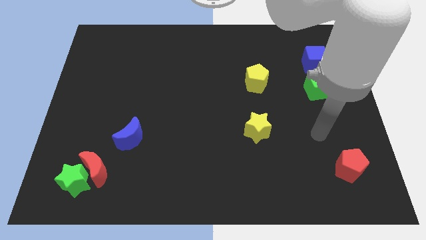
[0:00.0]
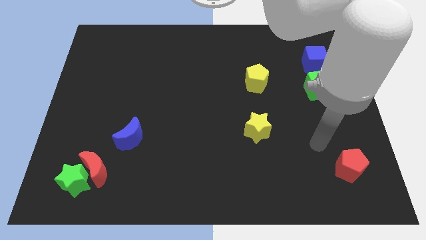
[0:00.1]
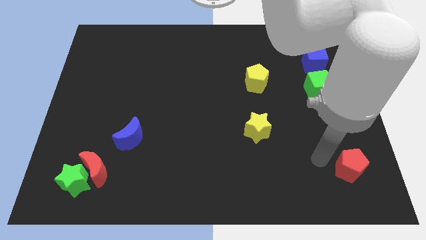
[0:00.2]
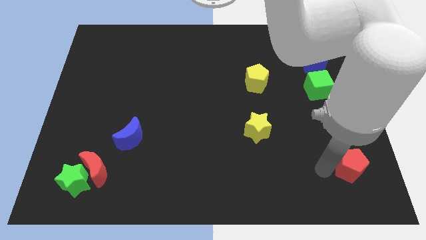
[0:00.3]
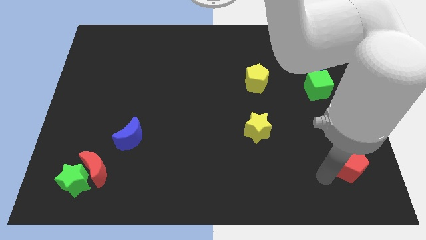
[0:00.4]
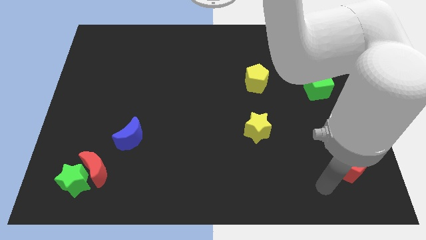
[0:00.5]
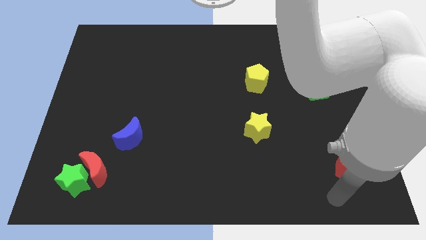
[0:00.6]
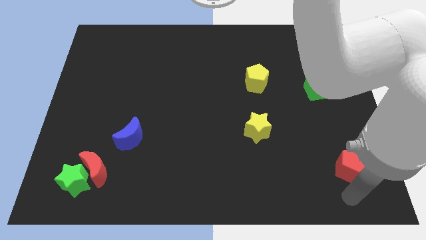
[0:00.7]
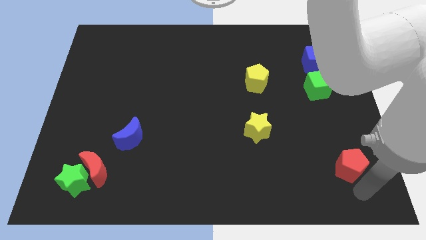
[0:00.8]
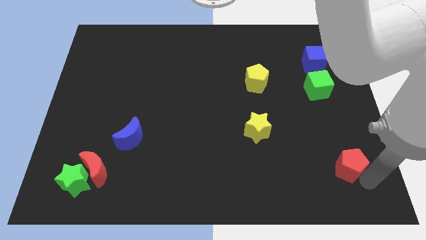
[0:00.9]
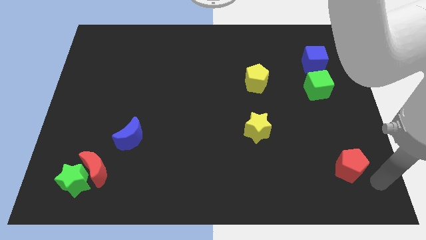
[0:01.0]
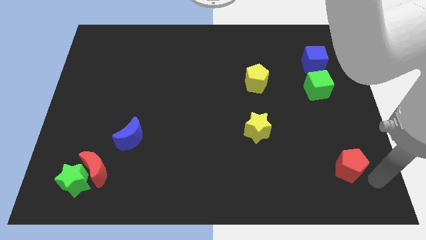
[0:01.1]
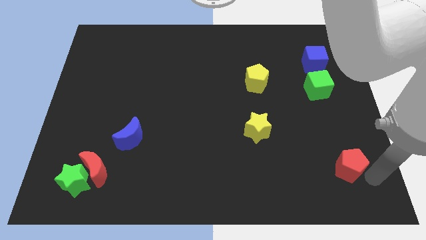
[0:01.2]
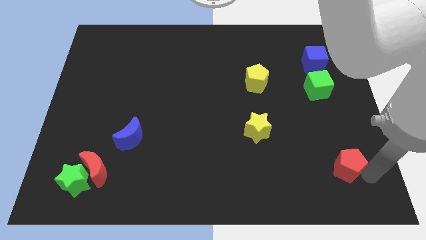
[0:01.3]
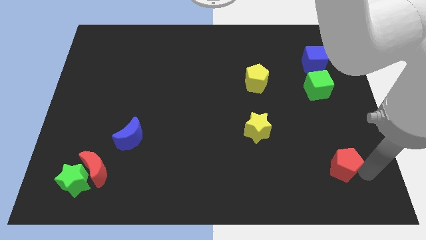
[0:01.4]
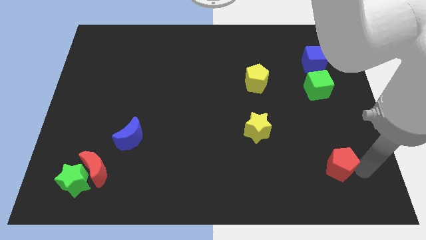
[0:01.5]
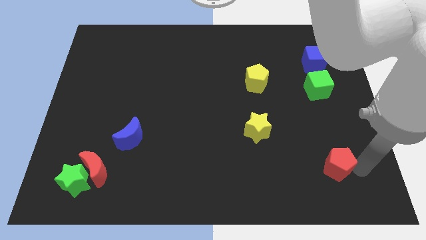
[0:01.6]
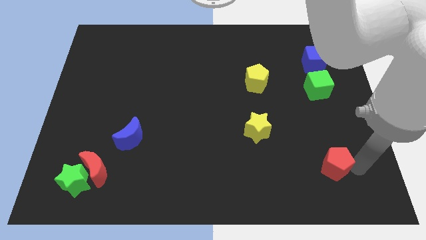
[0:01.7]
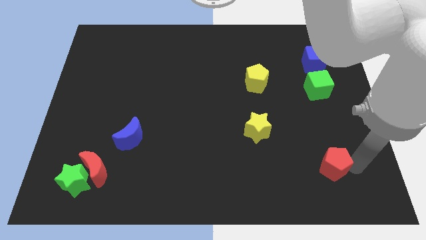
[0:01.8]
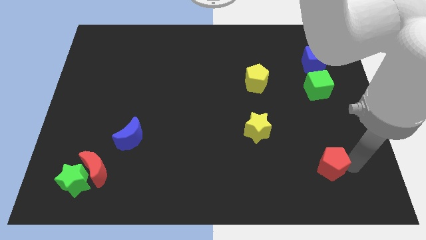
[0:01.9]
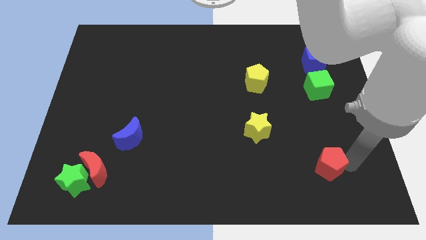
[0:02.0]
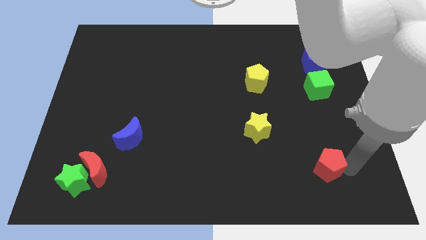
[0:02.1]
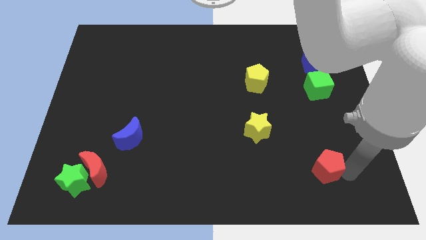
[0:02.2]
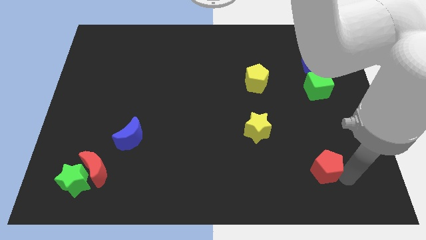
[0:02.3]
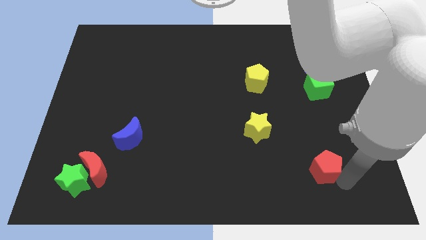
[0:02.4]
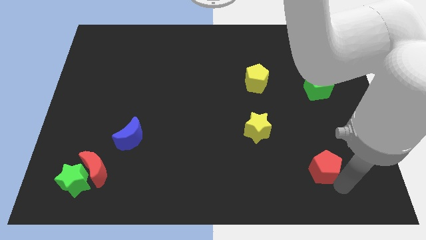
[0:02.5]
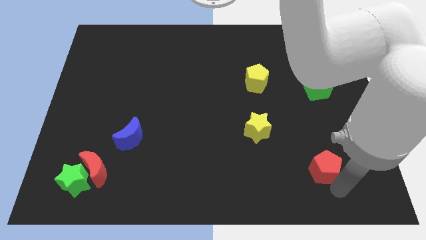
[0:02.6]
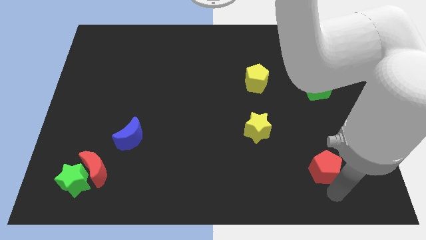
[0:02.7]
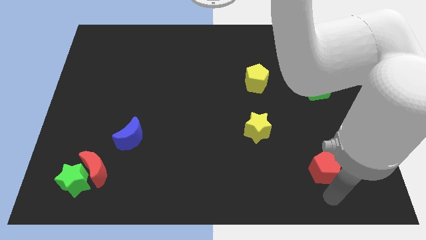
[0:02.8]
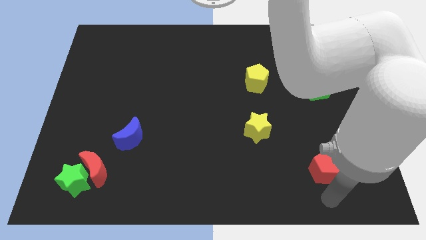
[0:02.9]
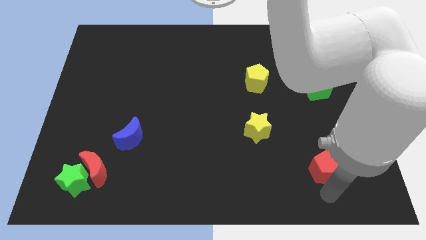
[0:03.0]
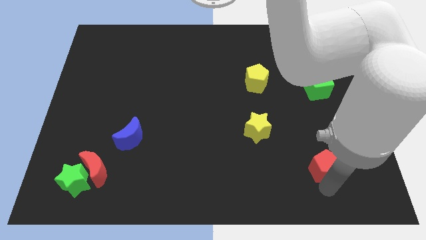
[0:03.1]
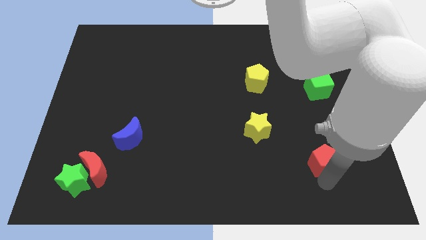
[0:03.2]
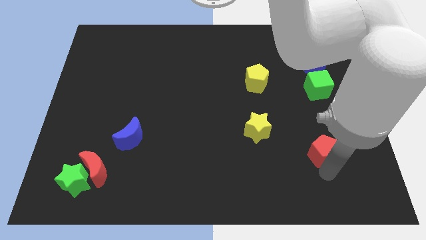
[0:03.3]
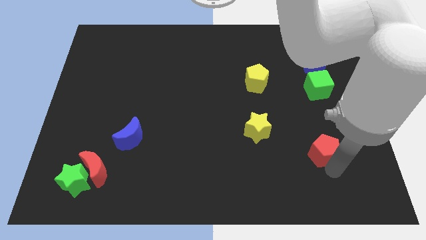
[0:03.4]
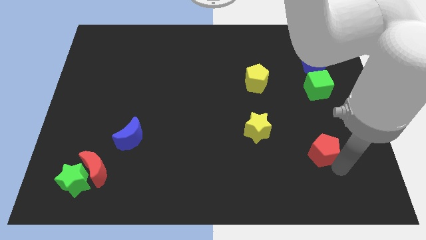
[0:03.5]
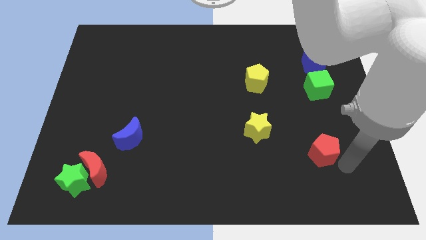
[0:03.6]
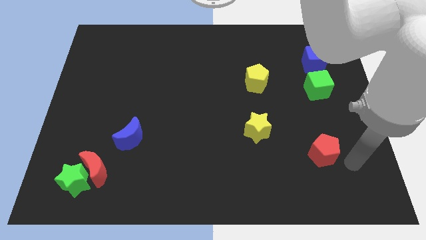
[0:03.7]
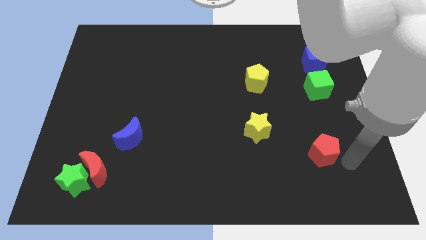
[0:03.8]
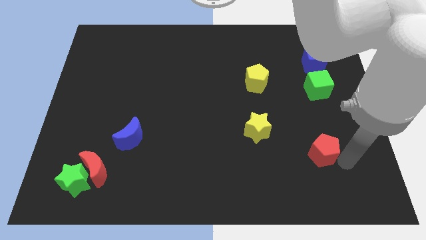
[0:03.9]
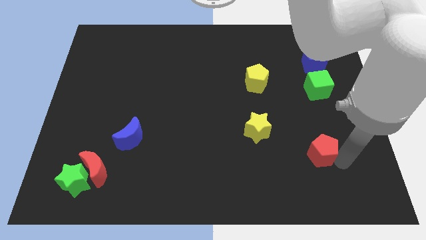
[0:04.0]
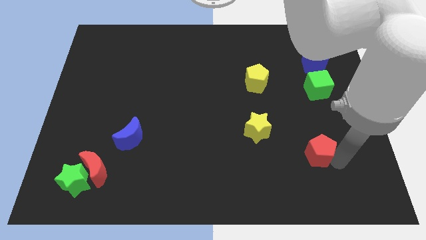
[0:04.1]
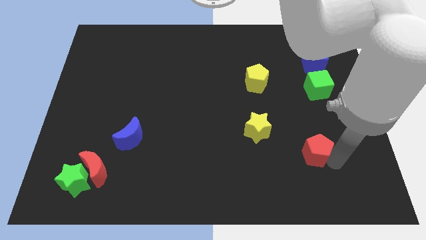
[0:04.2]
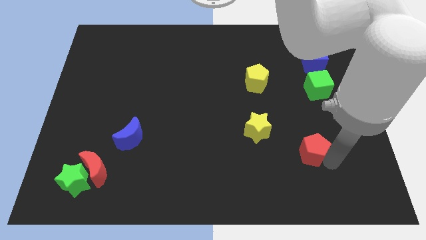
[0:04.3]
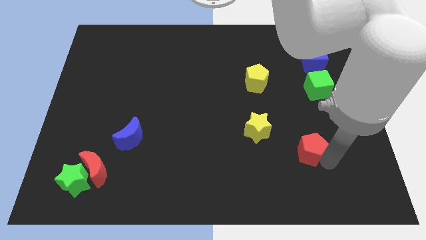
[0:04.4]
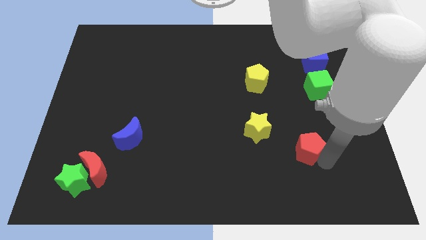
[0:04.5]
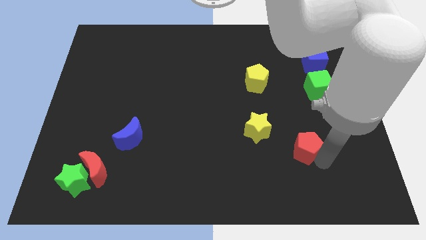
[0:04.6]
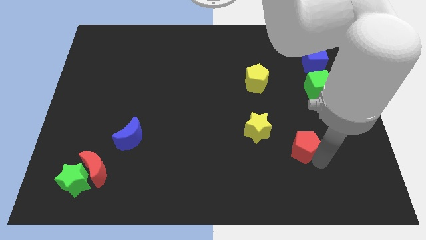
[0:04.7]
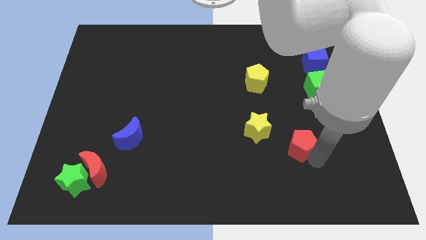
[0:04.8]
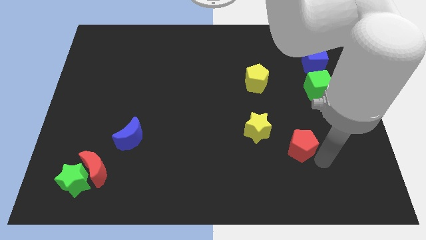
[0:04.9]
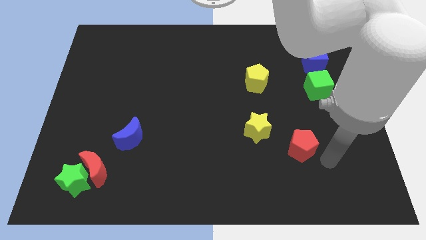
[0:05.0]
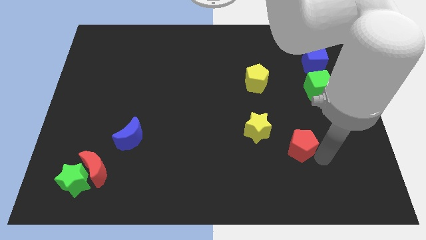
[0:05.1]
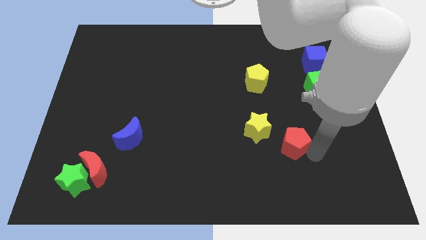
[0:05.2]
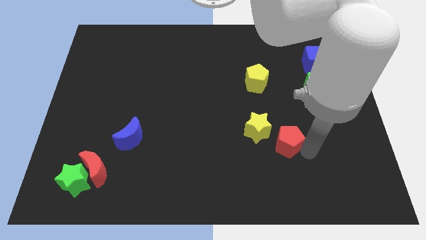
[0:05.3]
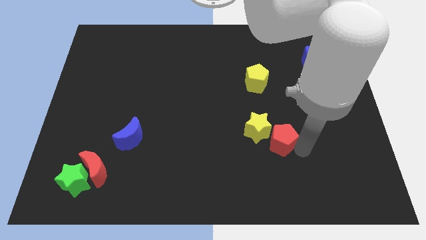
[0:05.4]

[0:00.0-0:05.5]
move the red pentagon to the yellow star

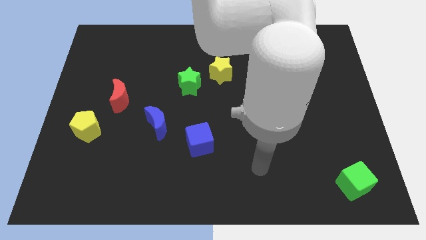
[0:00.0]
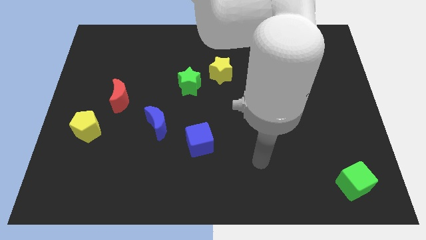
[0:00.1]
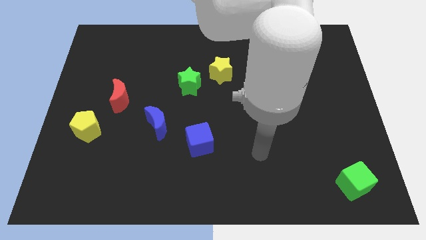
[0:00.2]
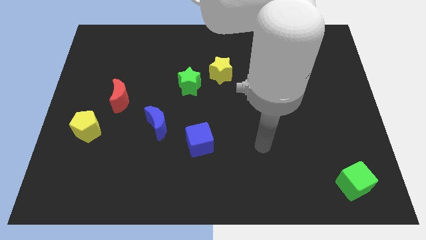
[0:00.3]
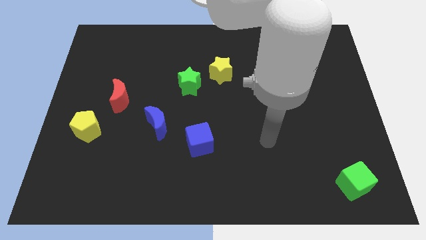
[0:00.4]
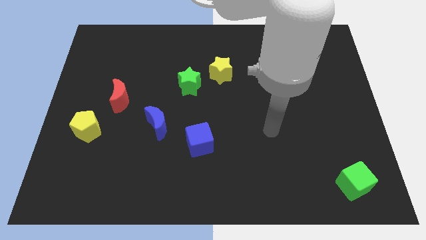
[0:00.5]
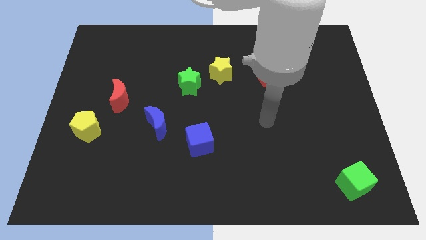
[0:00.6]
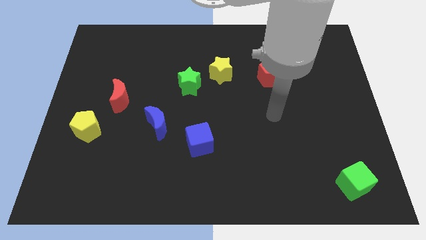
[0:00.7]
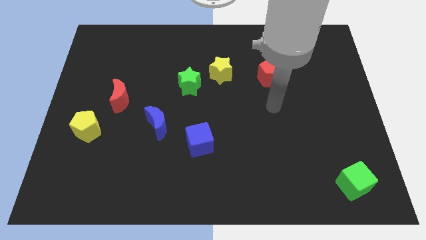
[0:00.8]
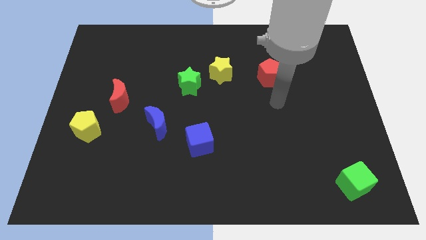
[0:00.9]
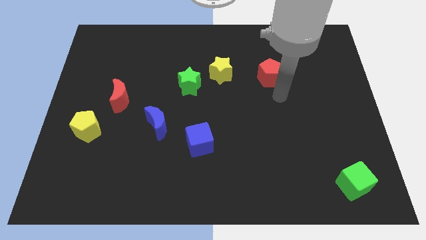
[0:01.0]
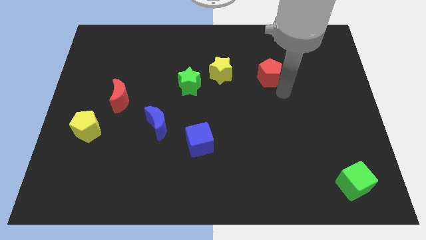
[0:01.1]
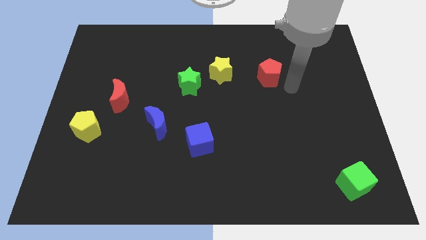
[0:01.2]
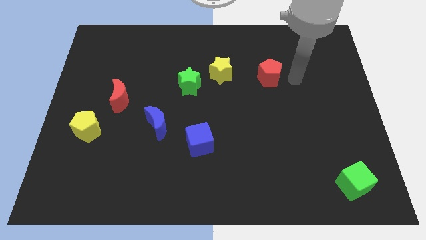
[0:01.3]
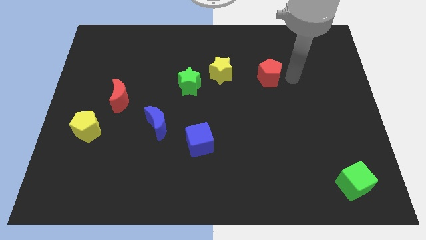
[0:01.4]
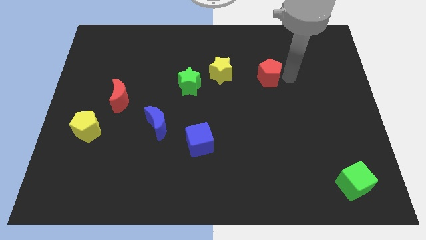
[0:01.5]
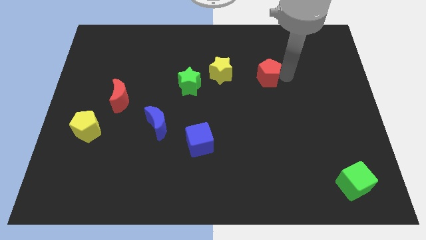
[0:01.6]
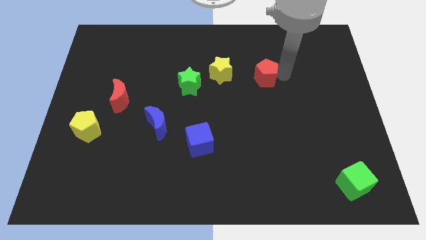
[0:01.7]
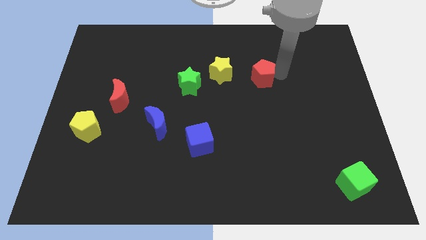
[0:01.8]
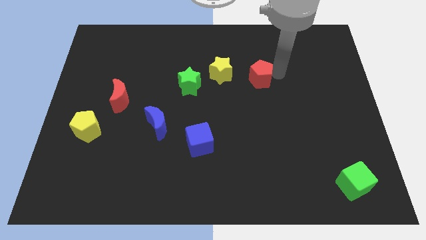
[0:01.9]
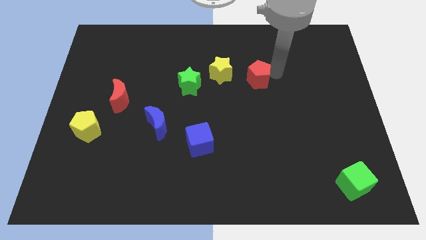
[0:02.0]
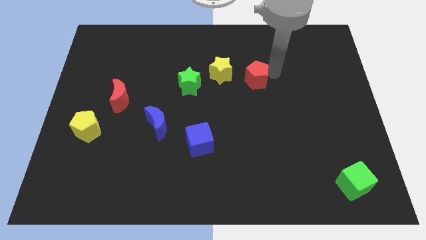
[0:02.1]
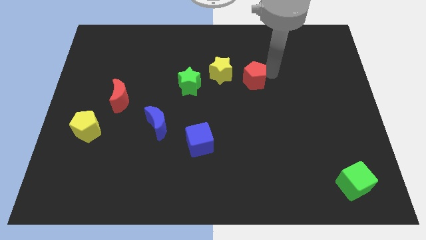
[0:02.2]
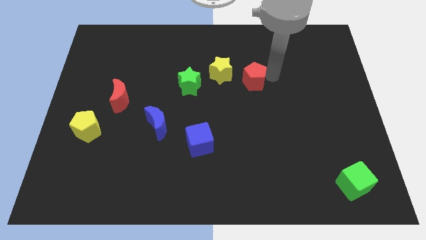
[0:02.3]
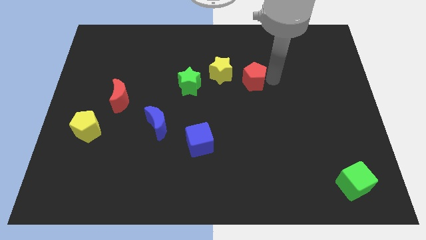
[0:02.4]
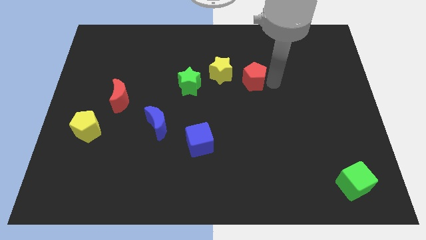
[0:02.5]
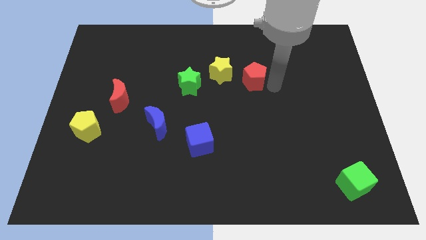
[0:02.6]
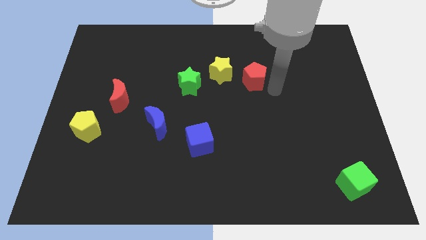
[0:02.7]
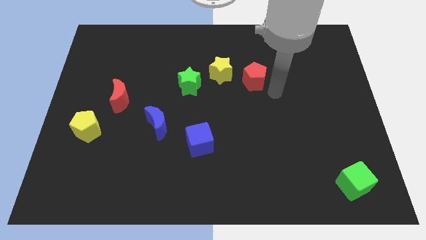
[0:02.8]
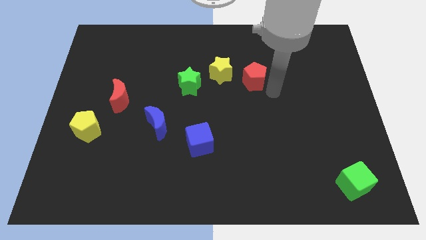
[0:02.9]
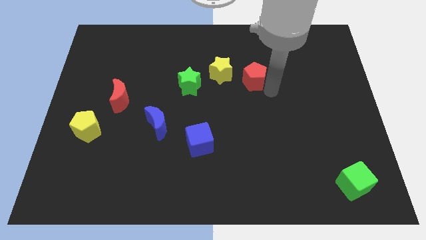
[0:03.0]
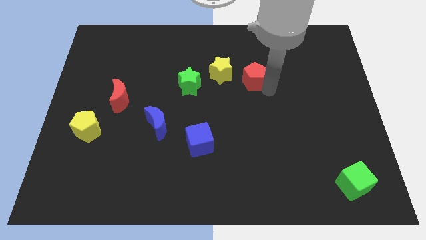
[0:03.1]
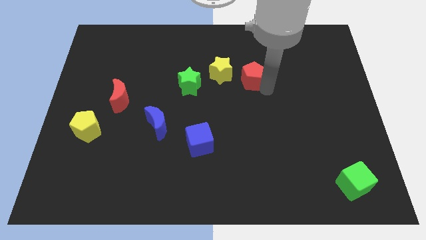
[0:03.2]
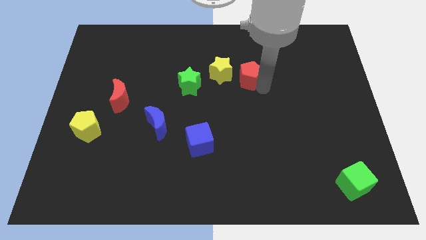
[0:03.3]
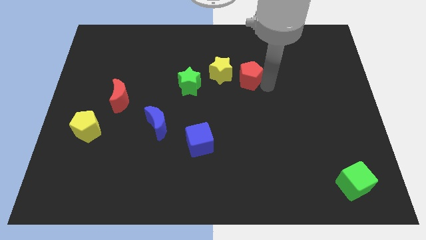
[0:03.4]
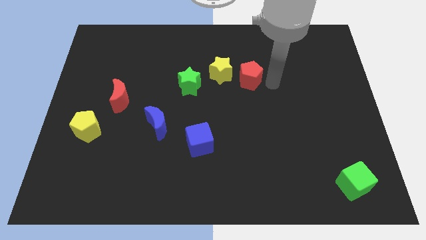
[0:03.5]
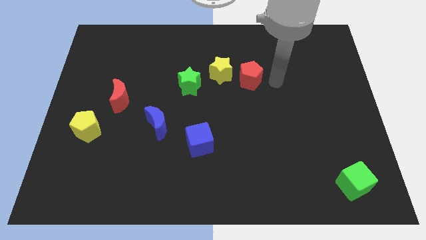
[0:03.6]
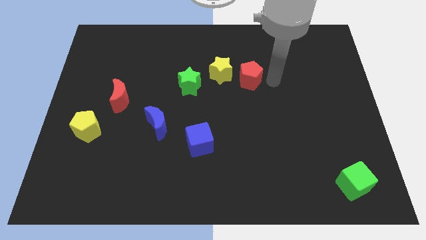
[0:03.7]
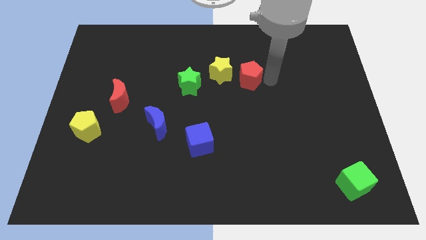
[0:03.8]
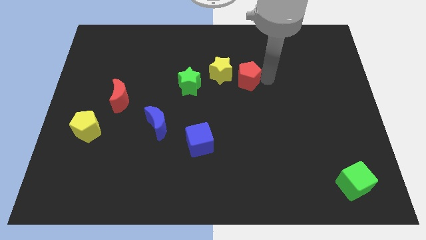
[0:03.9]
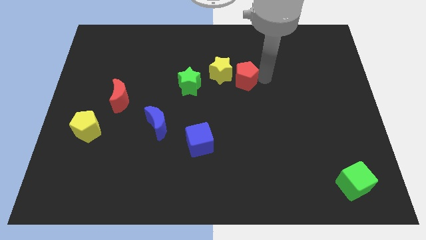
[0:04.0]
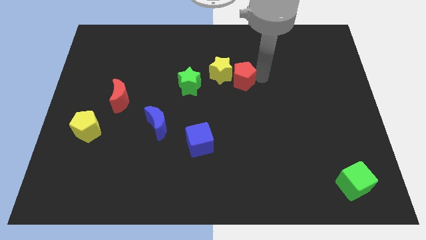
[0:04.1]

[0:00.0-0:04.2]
move the red pentagon next to the yellow star
